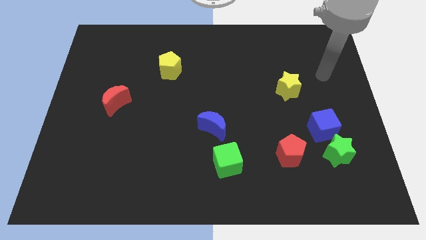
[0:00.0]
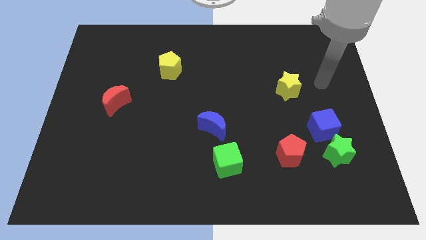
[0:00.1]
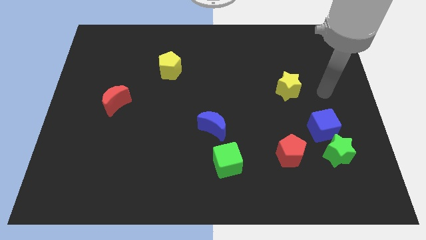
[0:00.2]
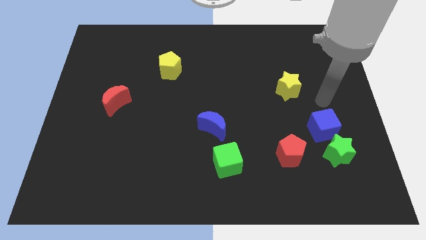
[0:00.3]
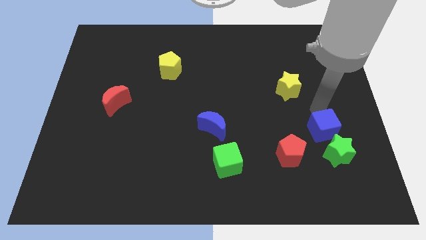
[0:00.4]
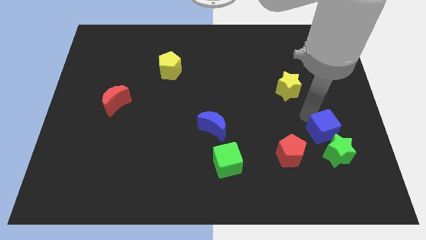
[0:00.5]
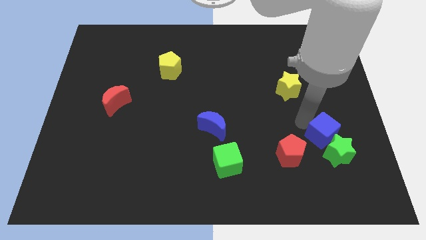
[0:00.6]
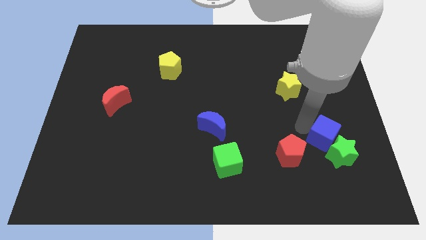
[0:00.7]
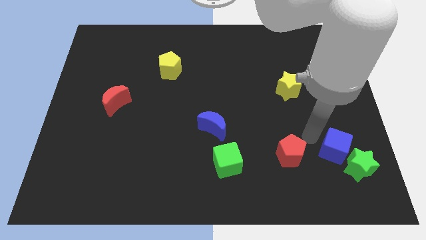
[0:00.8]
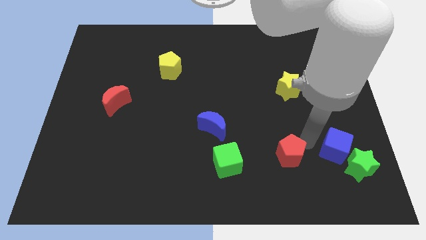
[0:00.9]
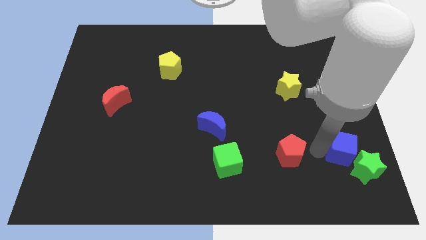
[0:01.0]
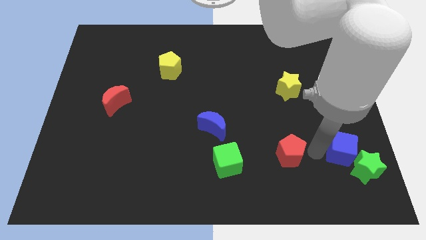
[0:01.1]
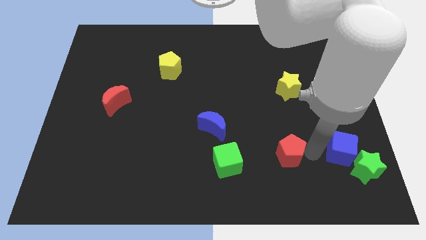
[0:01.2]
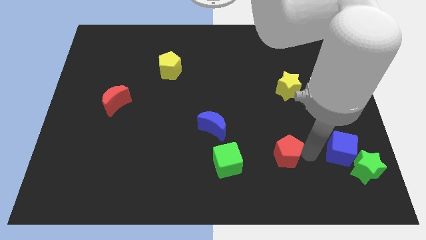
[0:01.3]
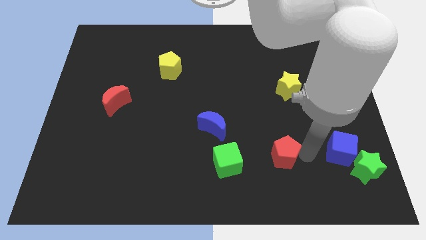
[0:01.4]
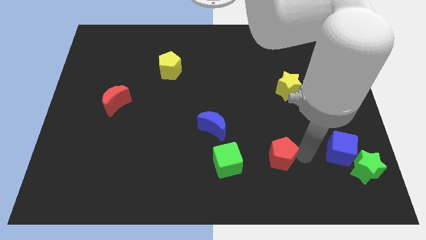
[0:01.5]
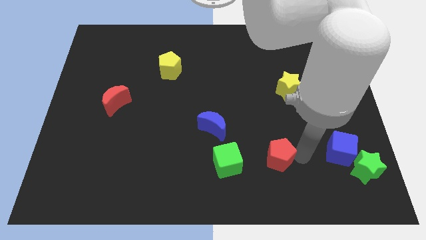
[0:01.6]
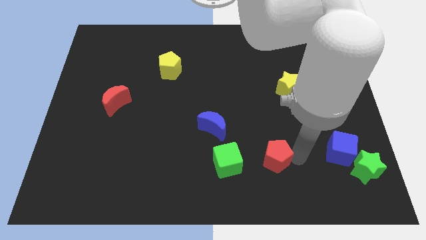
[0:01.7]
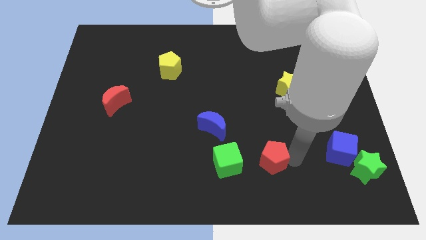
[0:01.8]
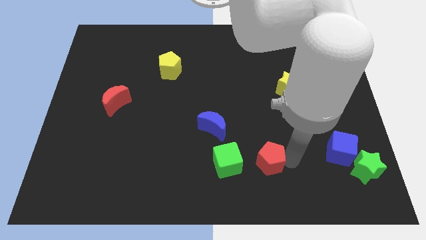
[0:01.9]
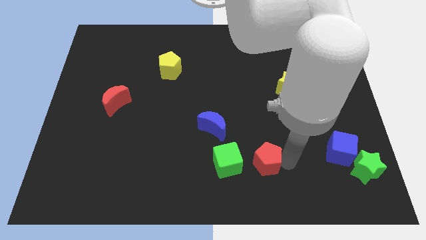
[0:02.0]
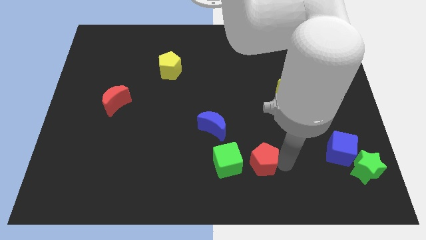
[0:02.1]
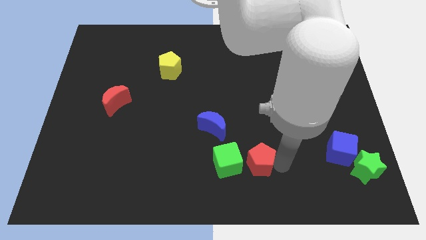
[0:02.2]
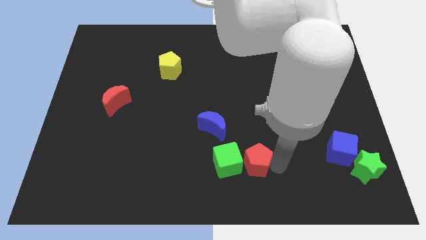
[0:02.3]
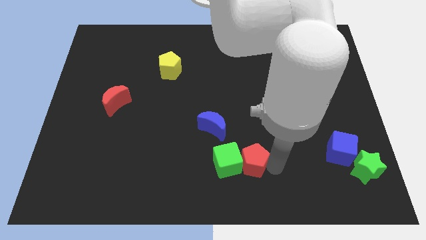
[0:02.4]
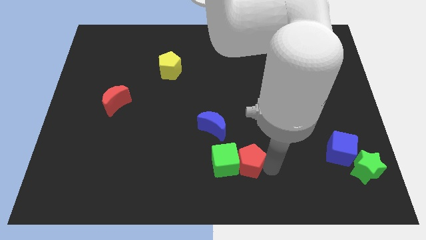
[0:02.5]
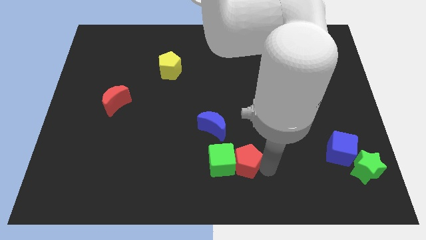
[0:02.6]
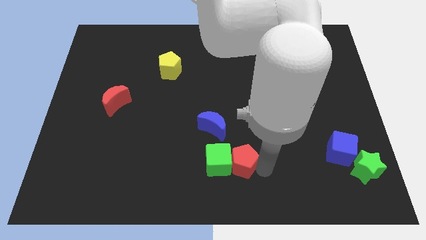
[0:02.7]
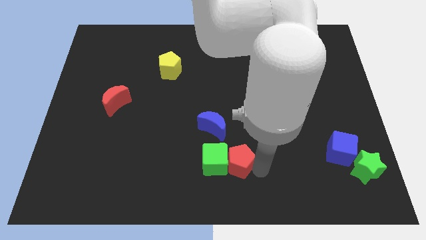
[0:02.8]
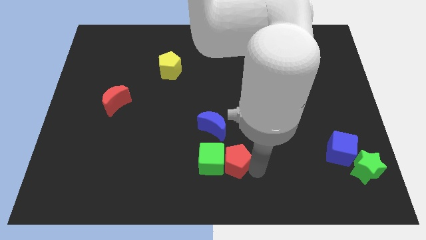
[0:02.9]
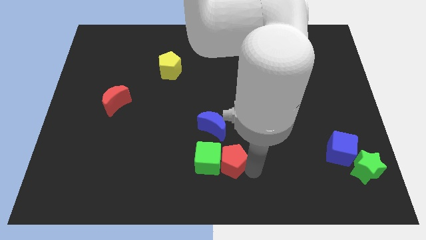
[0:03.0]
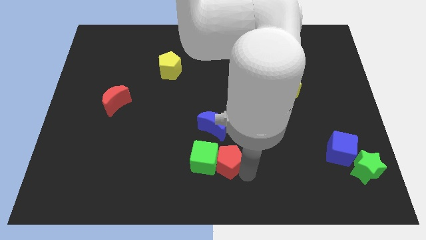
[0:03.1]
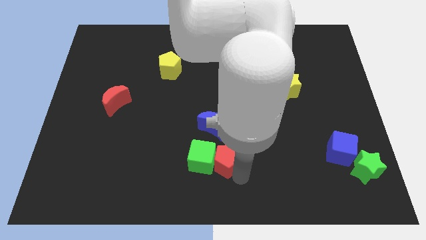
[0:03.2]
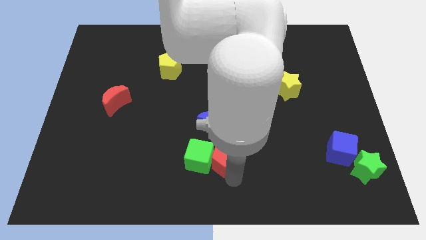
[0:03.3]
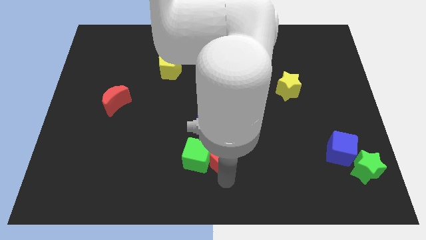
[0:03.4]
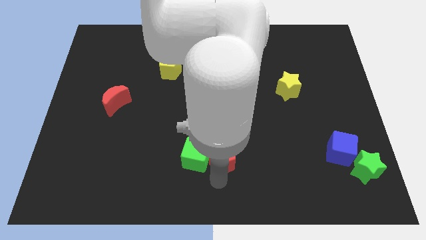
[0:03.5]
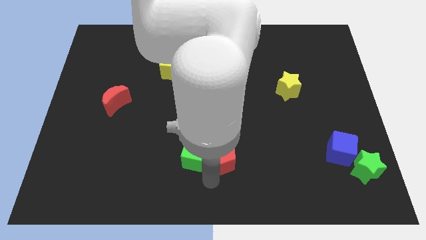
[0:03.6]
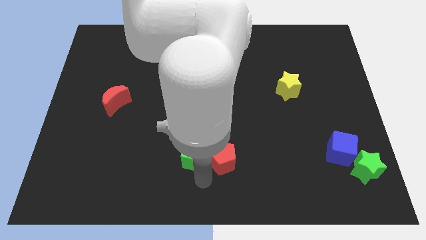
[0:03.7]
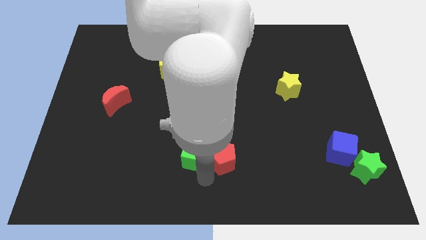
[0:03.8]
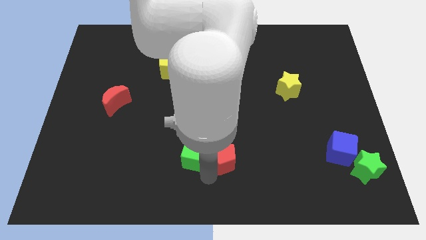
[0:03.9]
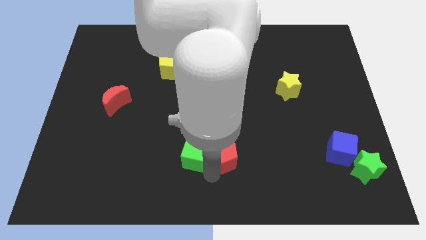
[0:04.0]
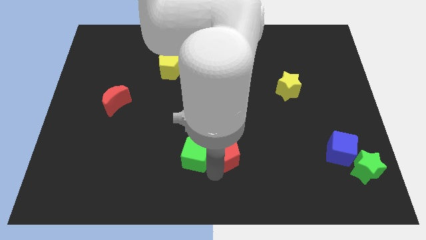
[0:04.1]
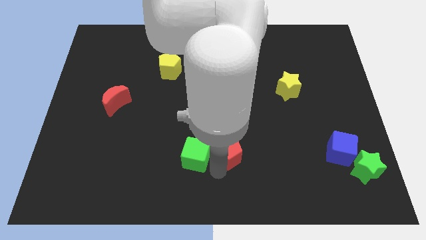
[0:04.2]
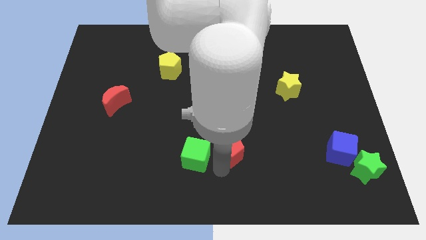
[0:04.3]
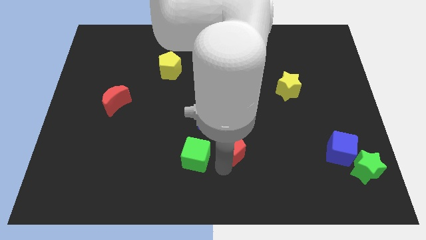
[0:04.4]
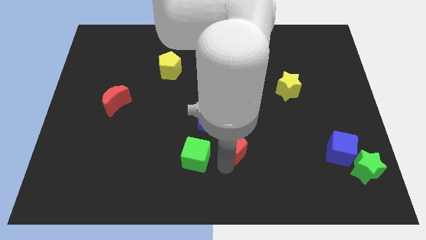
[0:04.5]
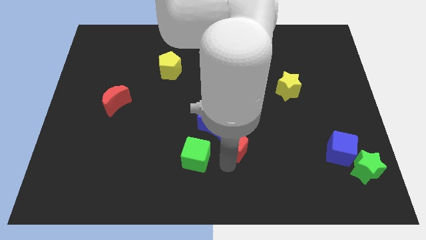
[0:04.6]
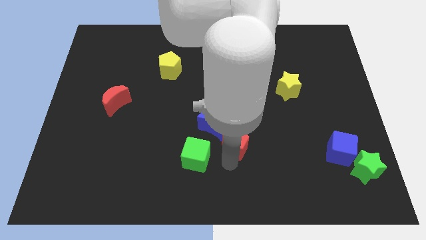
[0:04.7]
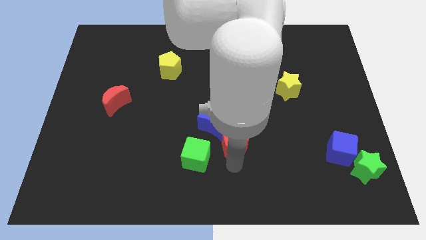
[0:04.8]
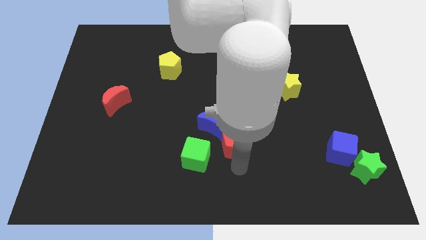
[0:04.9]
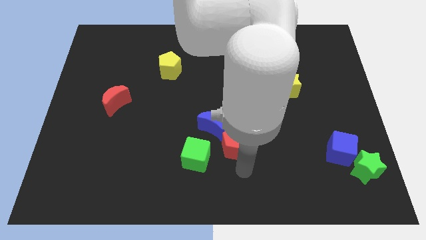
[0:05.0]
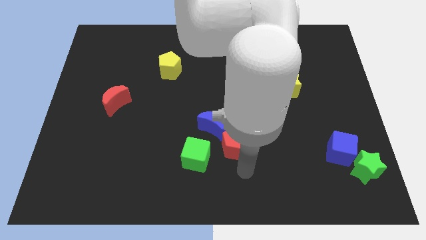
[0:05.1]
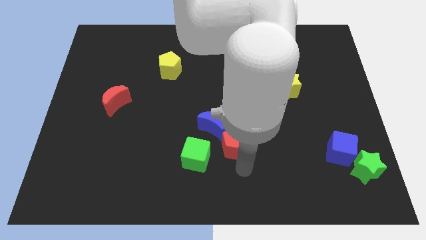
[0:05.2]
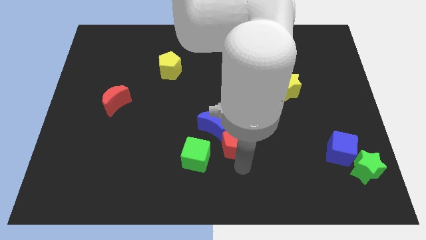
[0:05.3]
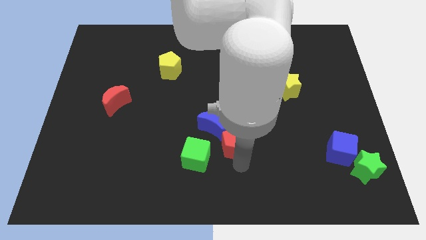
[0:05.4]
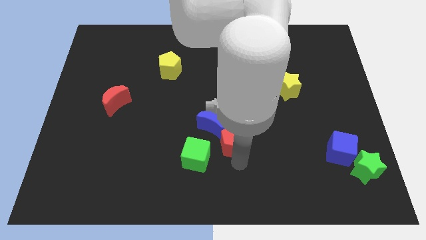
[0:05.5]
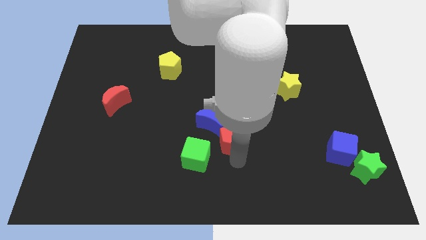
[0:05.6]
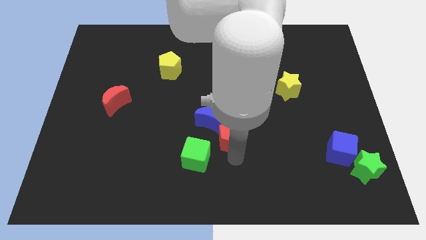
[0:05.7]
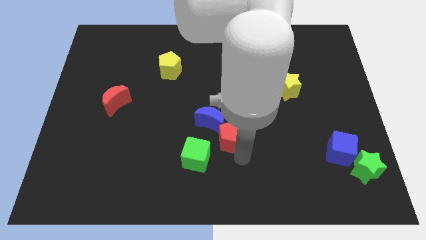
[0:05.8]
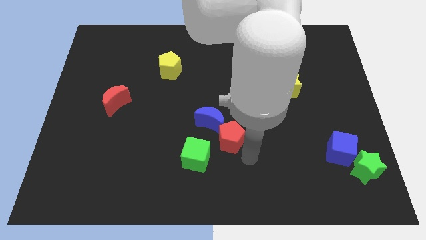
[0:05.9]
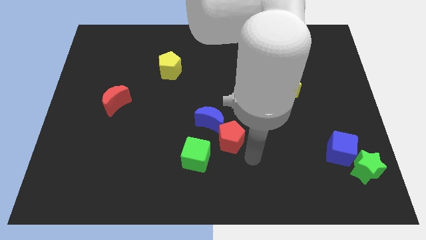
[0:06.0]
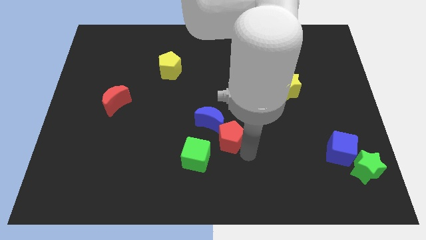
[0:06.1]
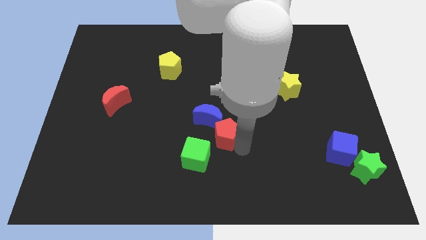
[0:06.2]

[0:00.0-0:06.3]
put the red pentagon to the blue moon

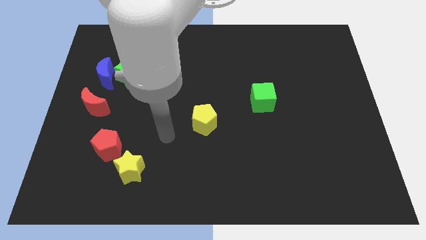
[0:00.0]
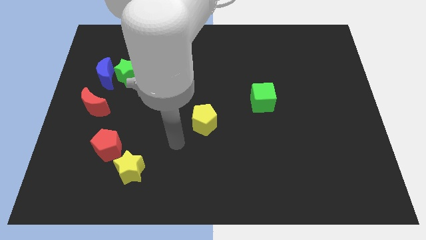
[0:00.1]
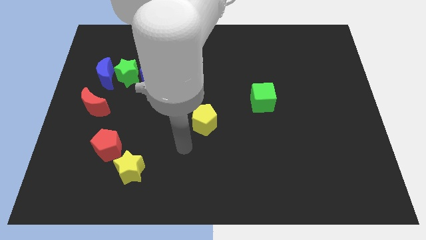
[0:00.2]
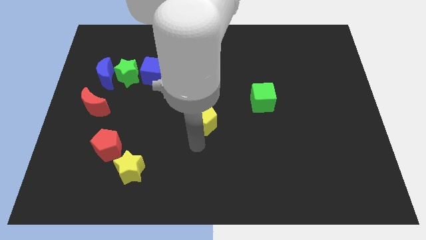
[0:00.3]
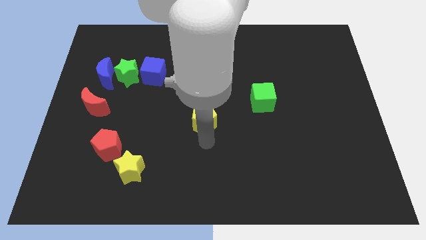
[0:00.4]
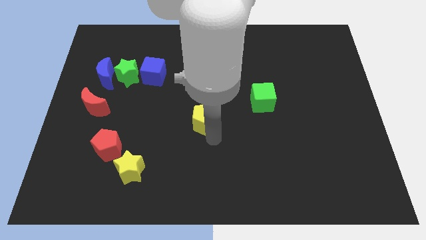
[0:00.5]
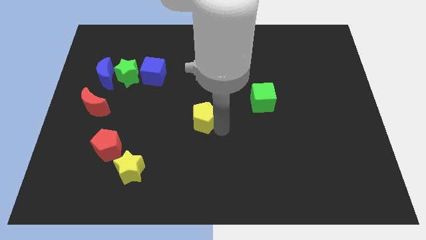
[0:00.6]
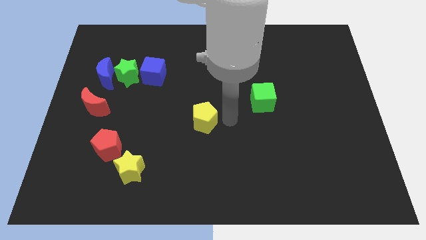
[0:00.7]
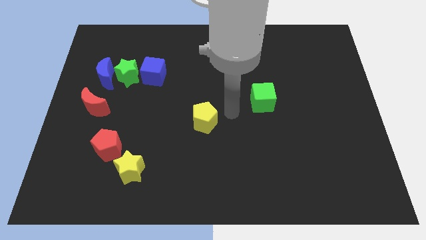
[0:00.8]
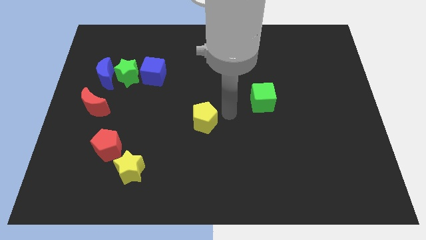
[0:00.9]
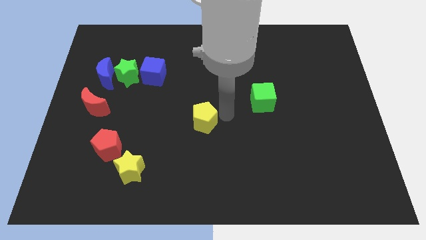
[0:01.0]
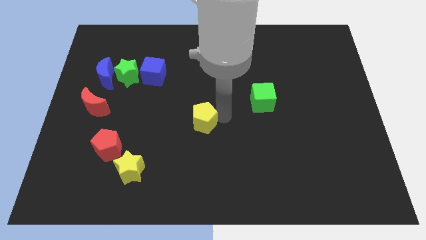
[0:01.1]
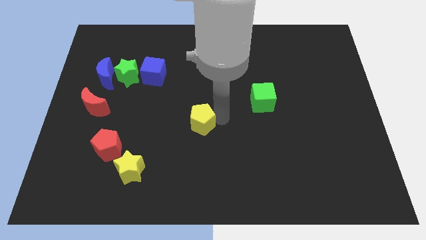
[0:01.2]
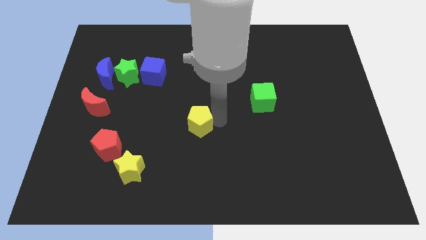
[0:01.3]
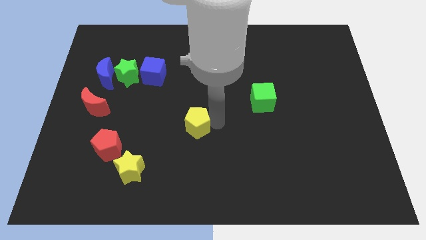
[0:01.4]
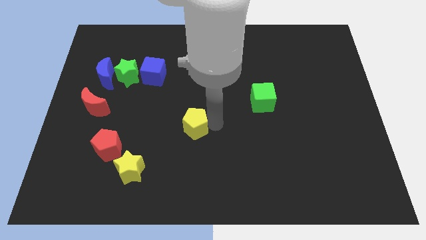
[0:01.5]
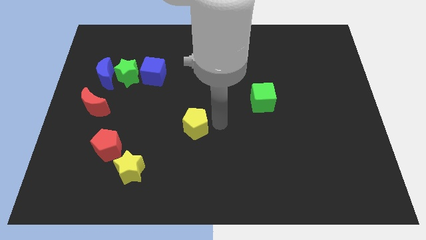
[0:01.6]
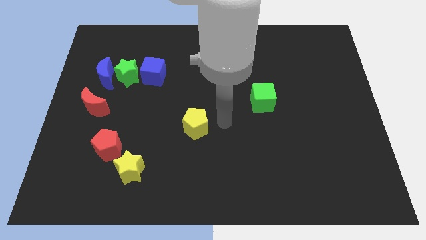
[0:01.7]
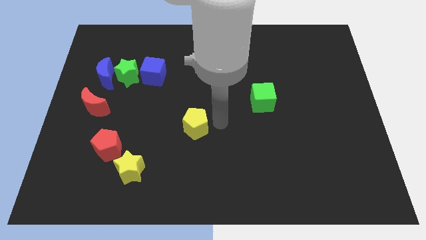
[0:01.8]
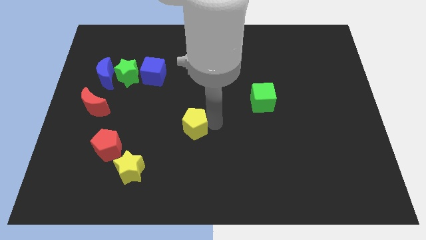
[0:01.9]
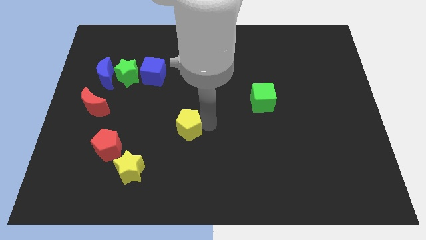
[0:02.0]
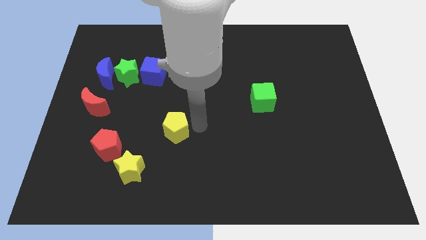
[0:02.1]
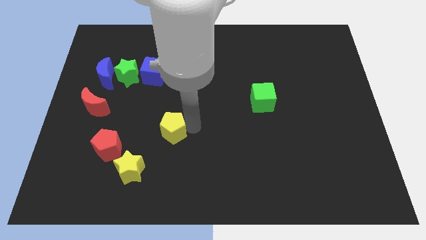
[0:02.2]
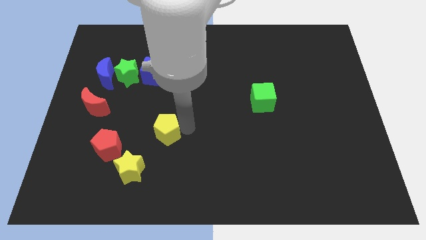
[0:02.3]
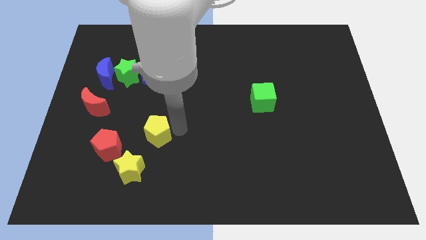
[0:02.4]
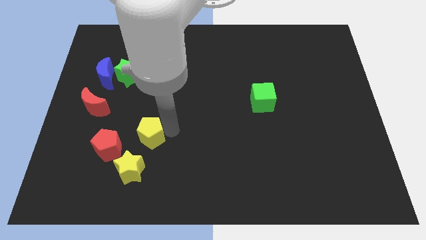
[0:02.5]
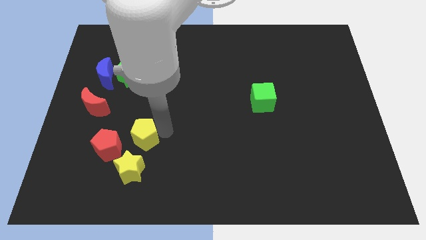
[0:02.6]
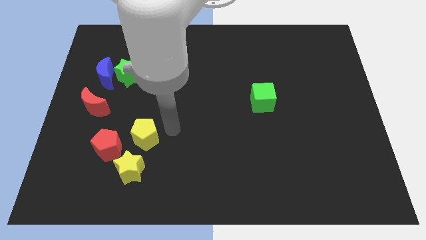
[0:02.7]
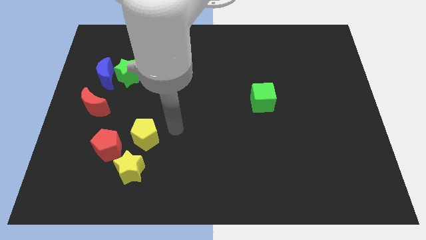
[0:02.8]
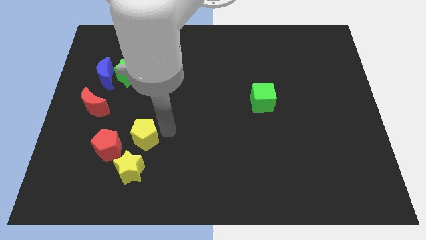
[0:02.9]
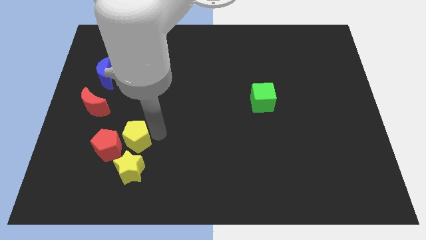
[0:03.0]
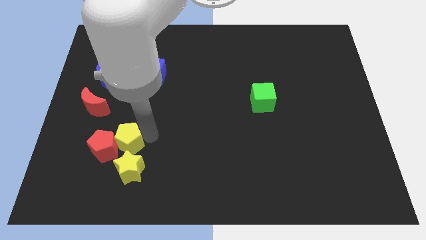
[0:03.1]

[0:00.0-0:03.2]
move the yellow pentagon towards the red pentagon
